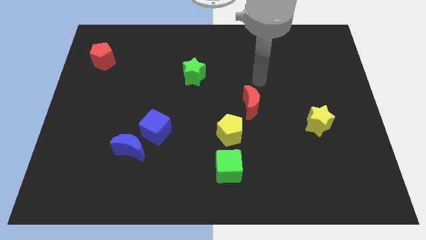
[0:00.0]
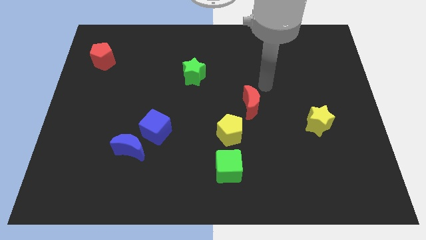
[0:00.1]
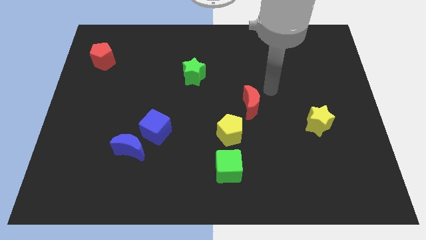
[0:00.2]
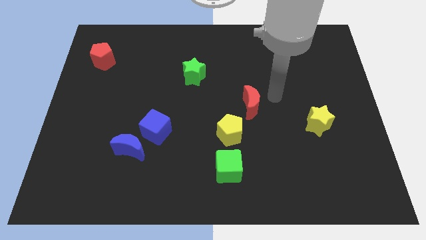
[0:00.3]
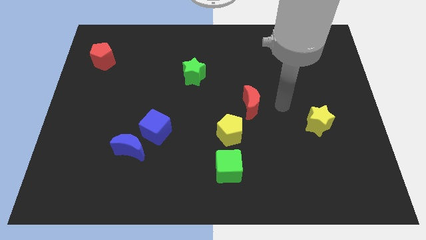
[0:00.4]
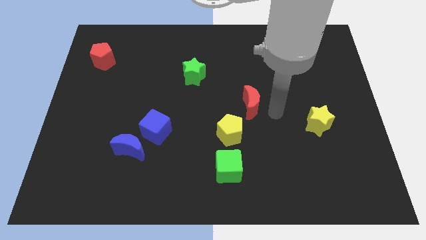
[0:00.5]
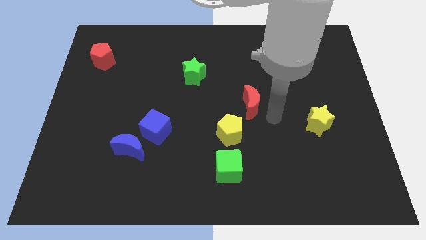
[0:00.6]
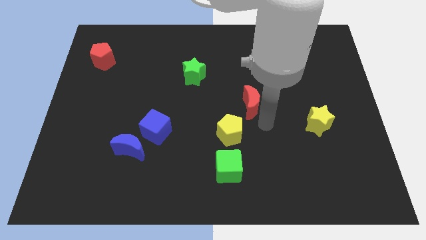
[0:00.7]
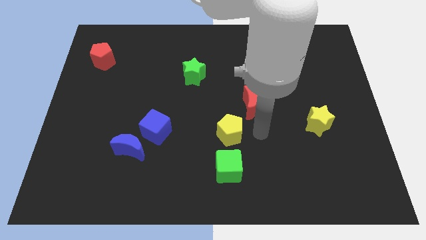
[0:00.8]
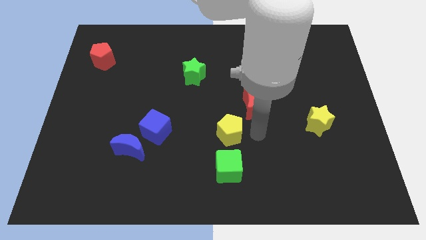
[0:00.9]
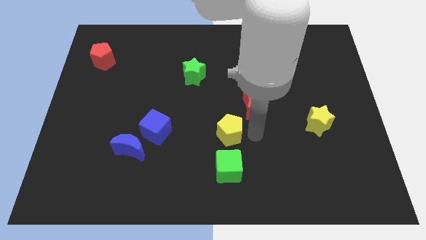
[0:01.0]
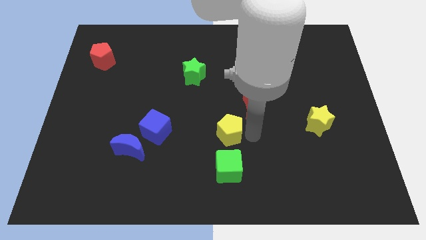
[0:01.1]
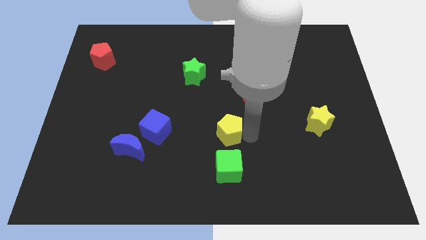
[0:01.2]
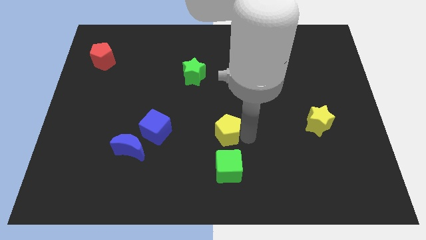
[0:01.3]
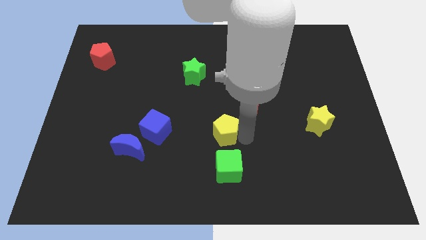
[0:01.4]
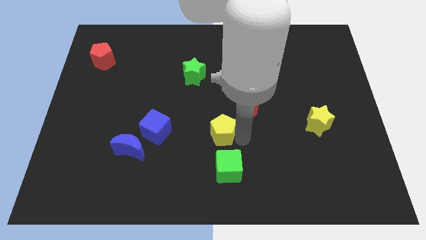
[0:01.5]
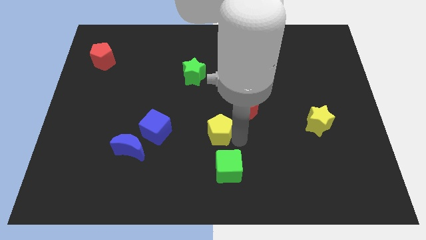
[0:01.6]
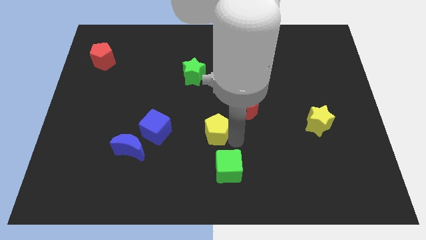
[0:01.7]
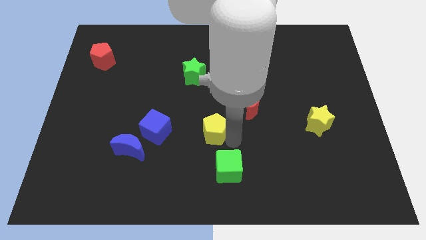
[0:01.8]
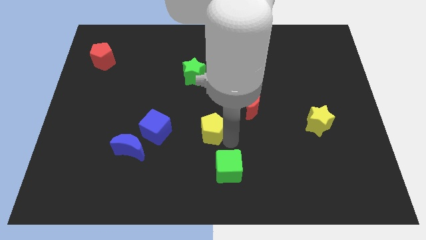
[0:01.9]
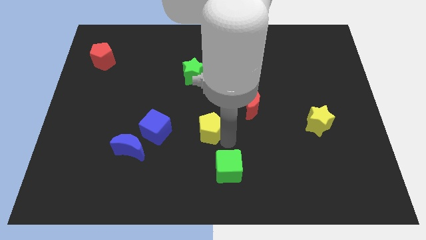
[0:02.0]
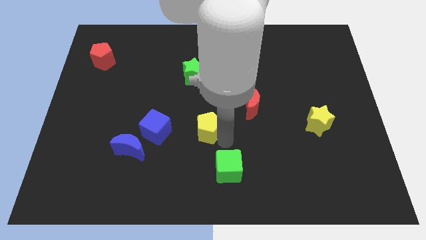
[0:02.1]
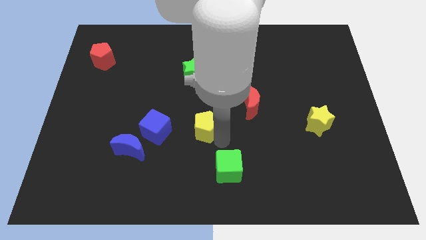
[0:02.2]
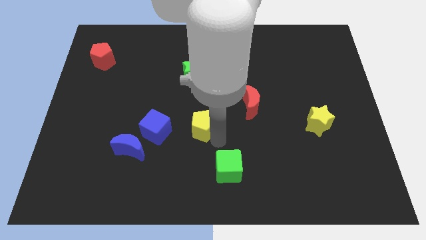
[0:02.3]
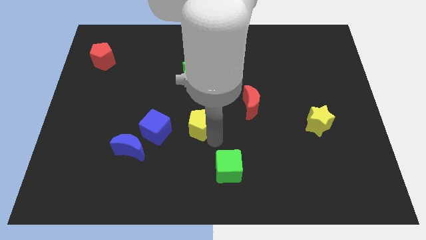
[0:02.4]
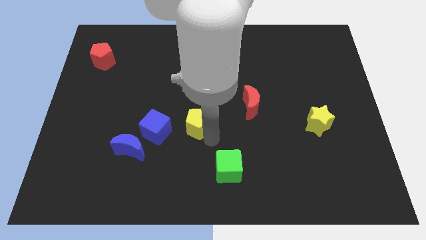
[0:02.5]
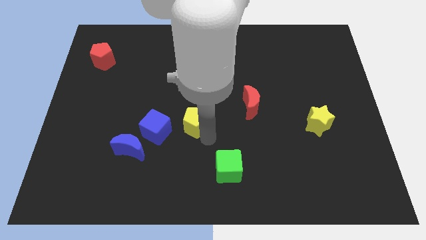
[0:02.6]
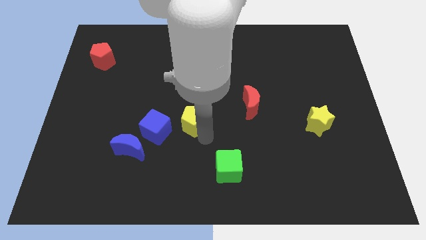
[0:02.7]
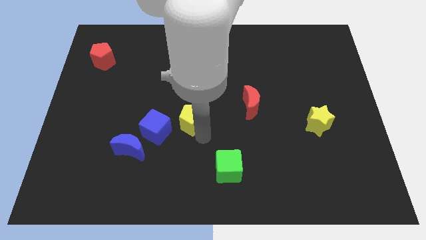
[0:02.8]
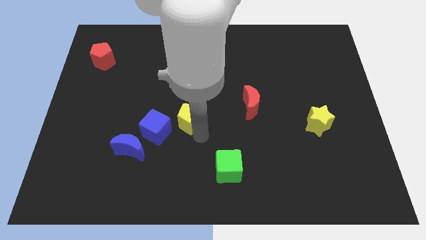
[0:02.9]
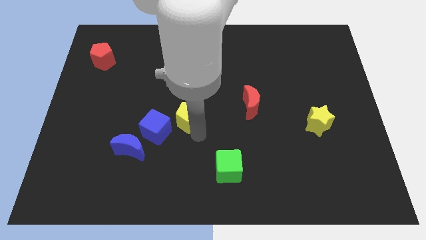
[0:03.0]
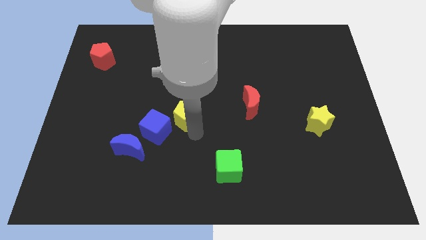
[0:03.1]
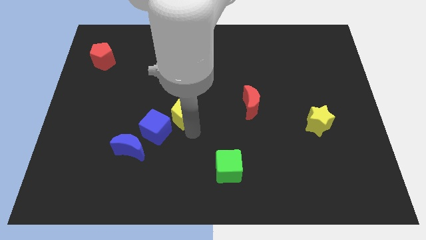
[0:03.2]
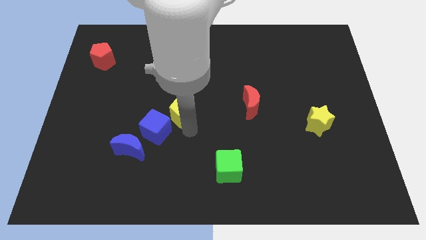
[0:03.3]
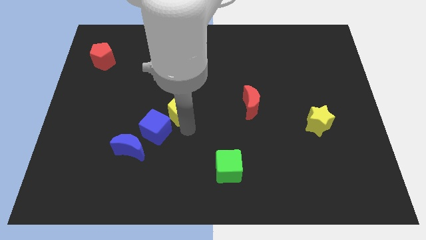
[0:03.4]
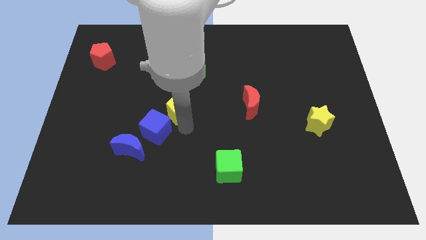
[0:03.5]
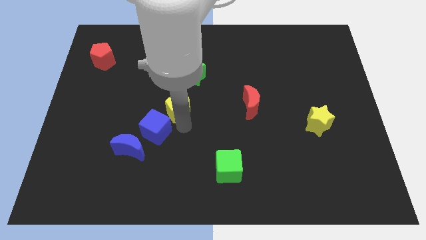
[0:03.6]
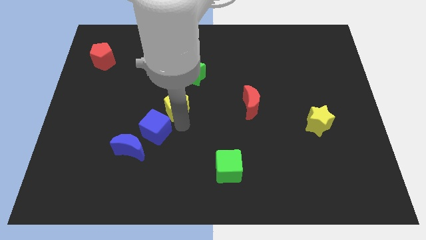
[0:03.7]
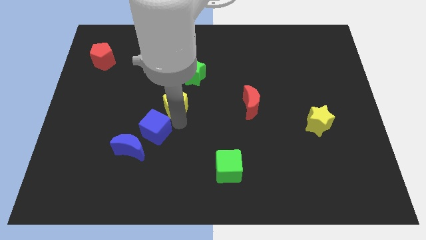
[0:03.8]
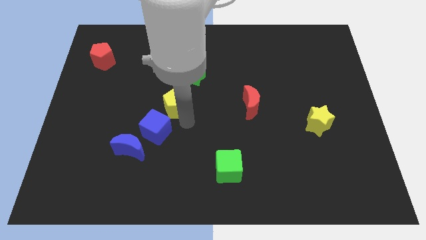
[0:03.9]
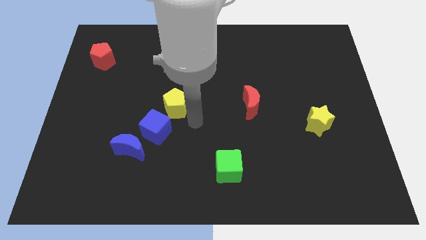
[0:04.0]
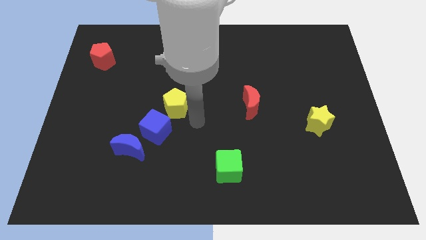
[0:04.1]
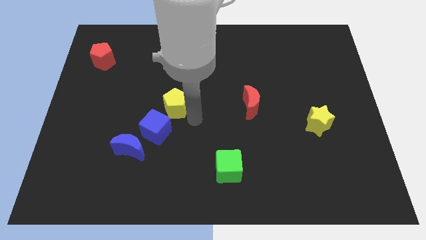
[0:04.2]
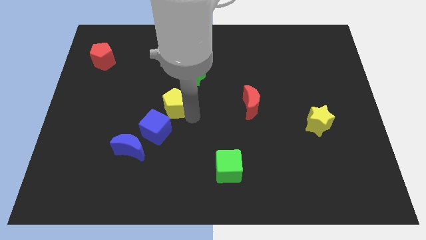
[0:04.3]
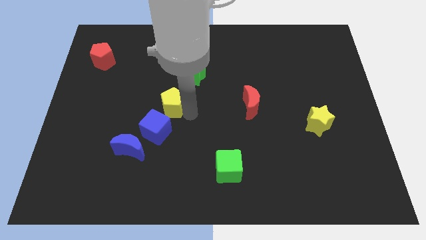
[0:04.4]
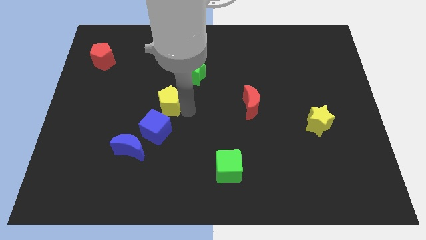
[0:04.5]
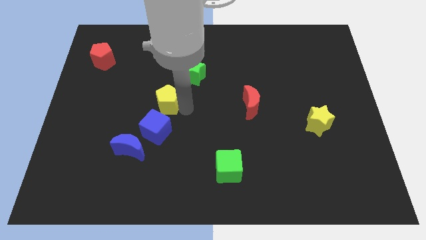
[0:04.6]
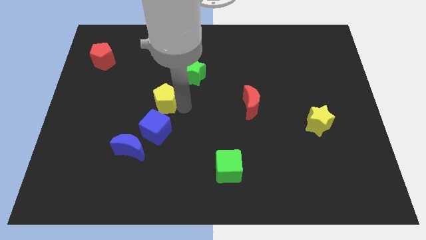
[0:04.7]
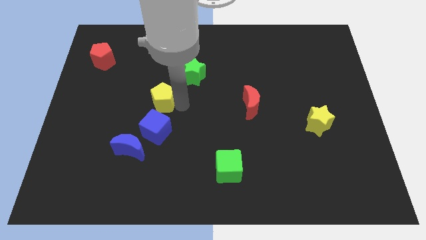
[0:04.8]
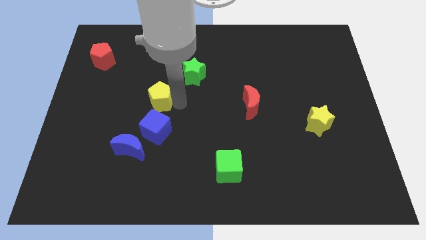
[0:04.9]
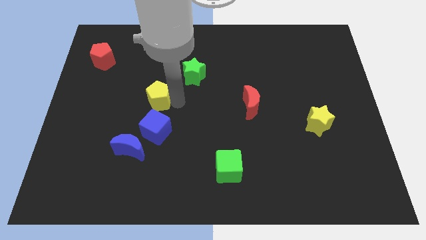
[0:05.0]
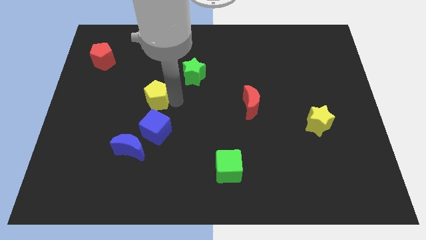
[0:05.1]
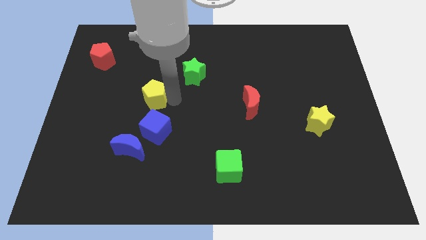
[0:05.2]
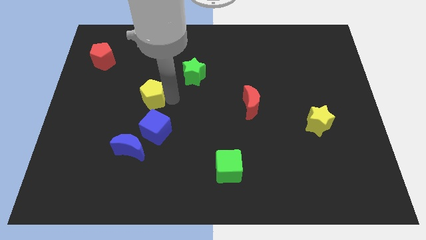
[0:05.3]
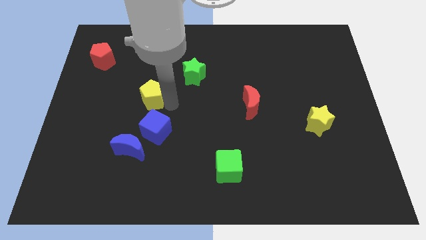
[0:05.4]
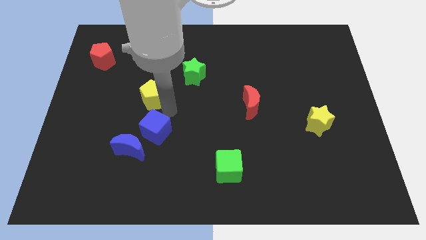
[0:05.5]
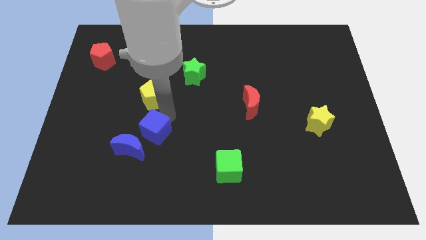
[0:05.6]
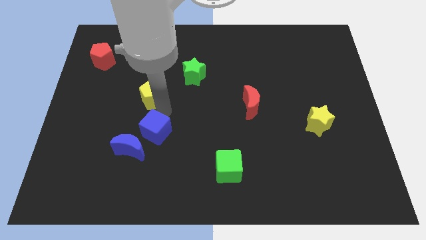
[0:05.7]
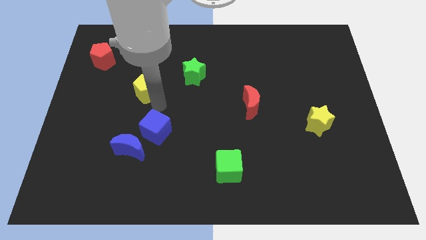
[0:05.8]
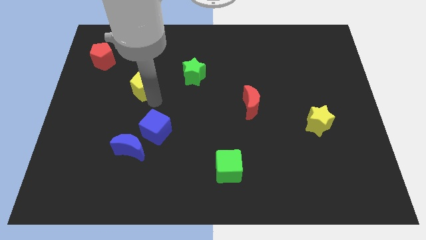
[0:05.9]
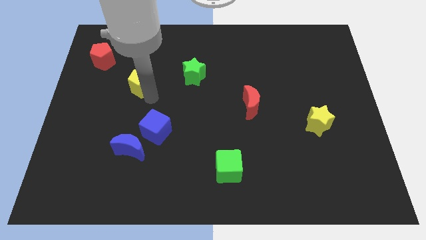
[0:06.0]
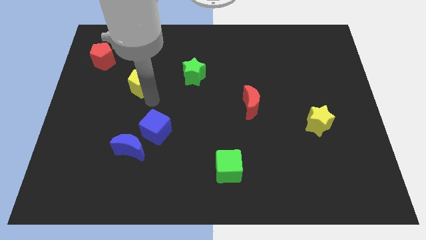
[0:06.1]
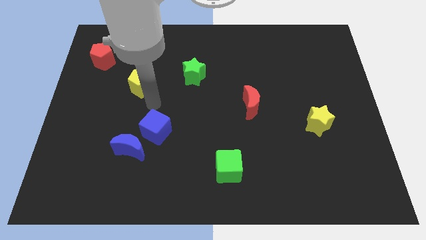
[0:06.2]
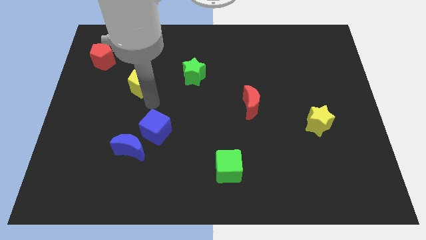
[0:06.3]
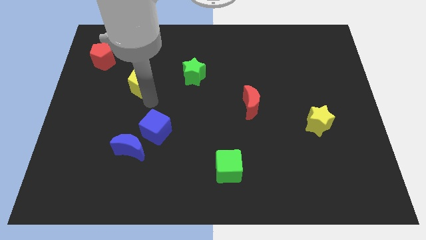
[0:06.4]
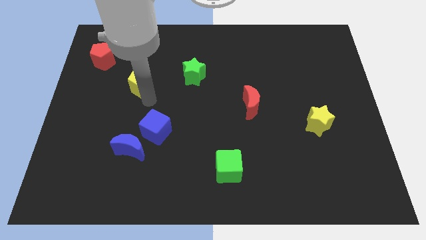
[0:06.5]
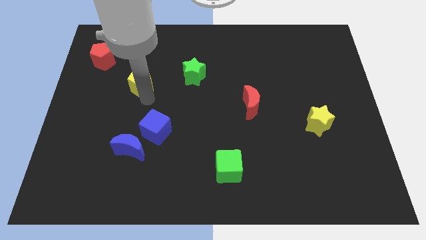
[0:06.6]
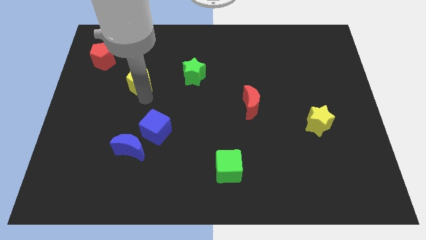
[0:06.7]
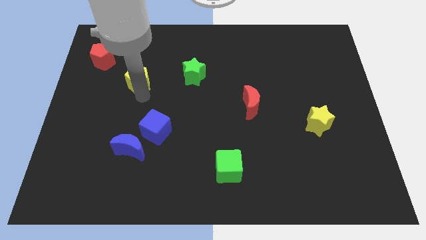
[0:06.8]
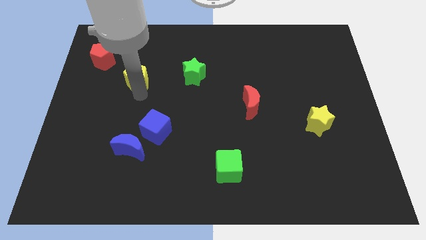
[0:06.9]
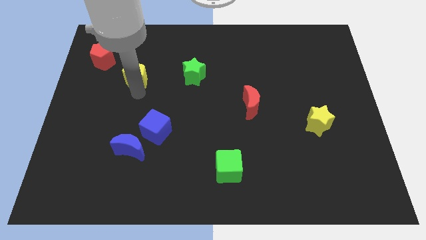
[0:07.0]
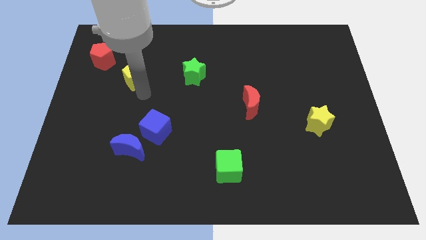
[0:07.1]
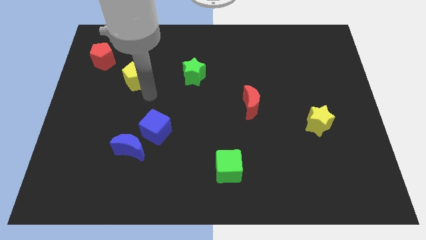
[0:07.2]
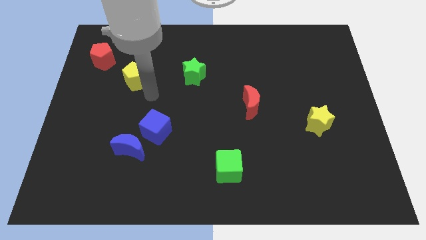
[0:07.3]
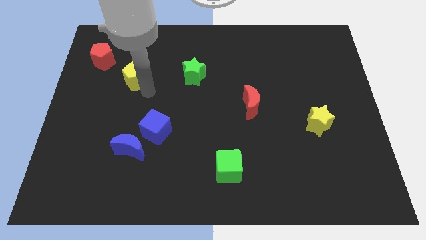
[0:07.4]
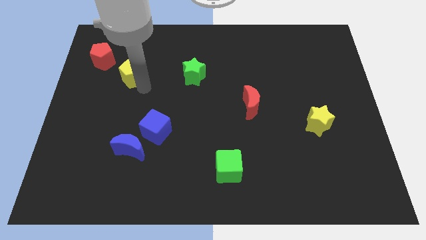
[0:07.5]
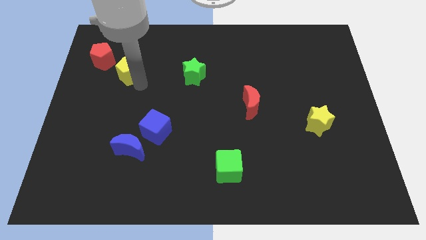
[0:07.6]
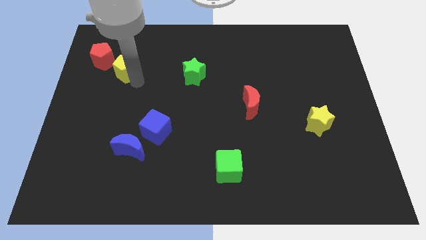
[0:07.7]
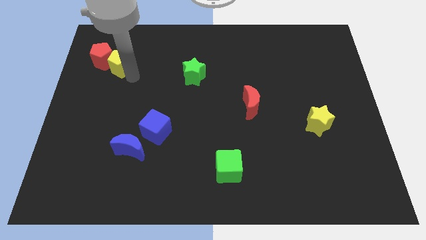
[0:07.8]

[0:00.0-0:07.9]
move the yellow pentagon next to the red pentagon
